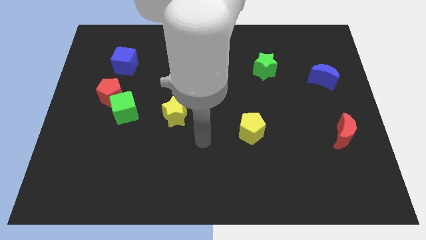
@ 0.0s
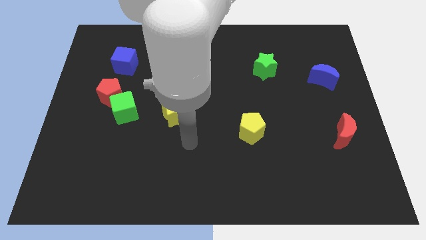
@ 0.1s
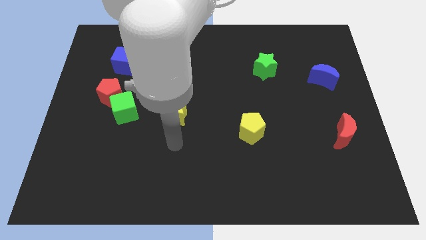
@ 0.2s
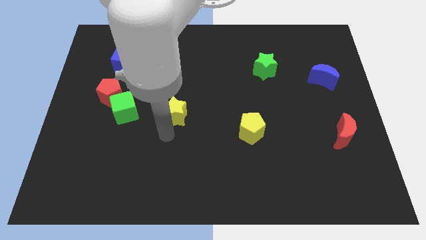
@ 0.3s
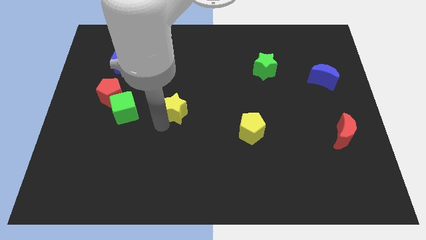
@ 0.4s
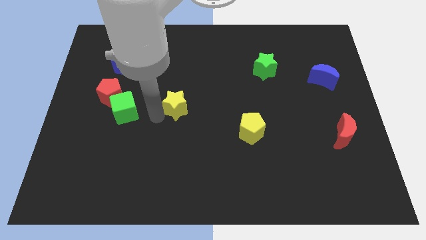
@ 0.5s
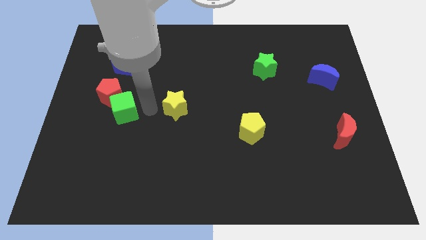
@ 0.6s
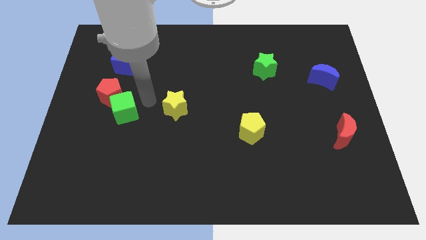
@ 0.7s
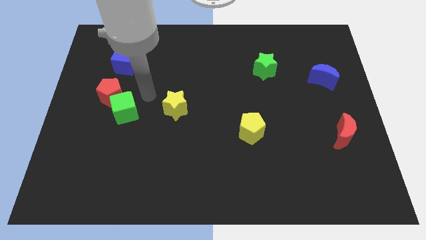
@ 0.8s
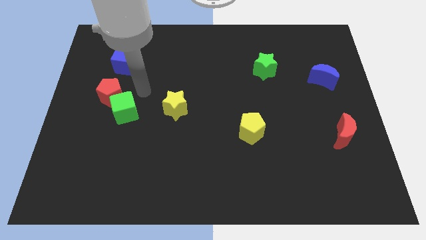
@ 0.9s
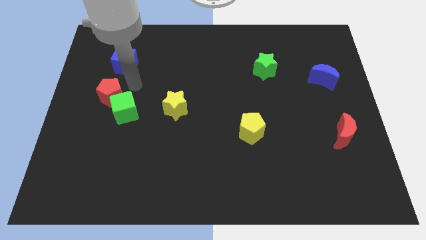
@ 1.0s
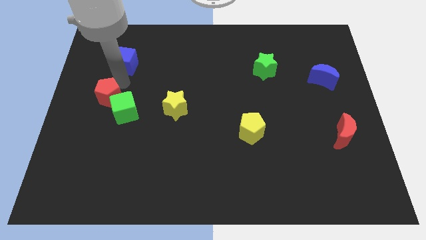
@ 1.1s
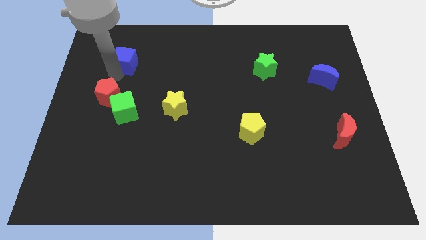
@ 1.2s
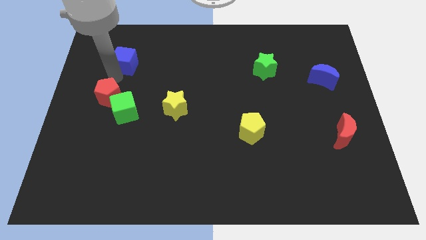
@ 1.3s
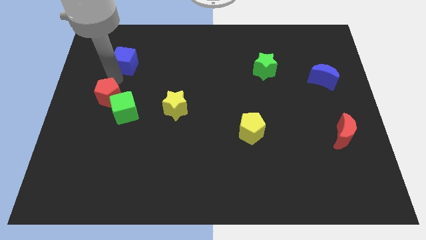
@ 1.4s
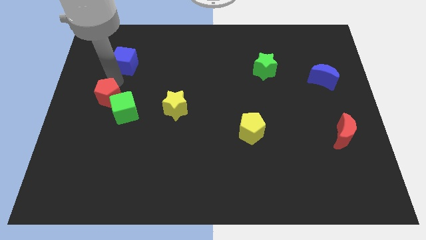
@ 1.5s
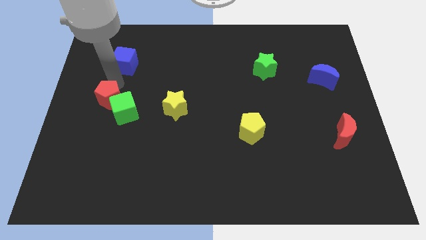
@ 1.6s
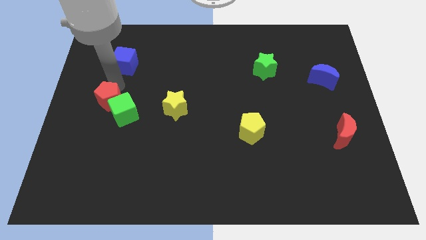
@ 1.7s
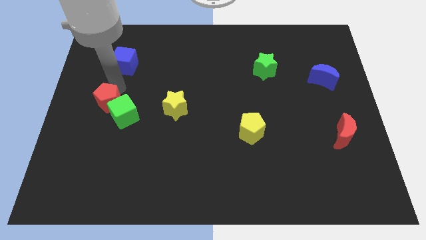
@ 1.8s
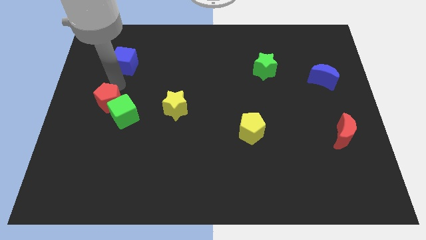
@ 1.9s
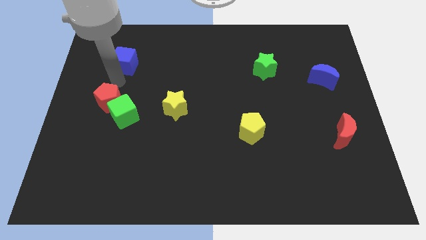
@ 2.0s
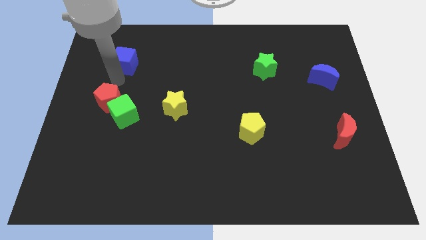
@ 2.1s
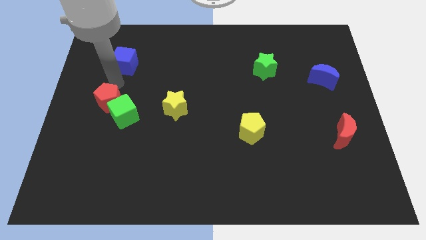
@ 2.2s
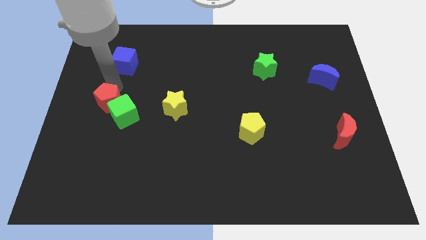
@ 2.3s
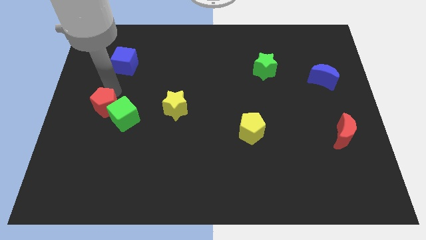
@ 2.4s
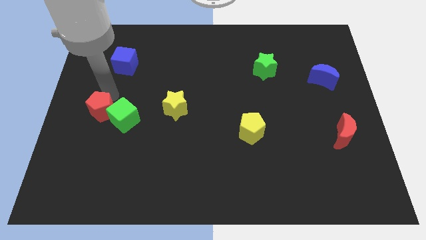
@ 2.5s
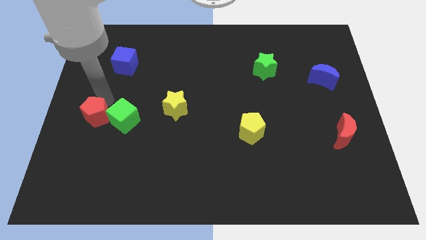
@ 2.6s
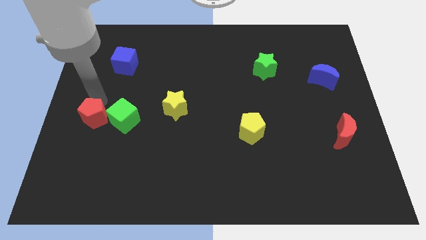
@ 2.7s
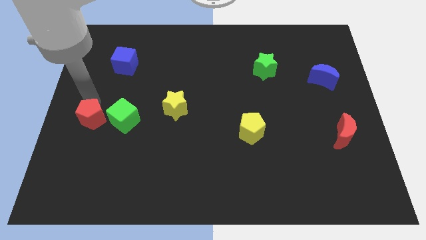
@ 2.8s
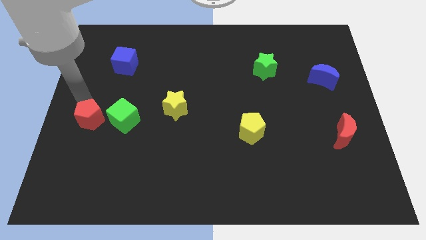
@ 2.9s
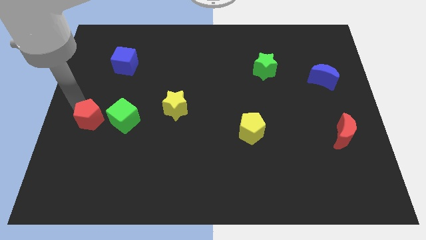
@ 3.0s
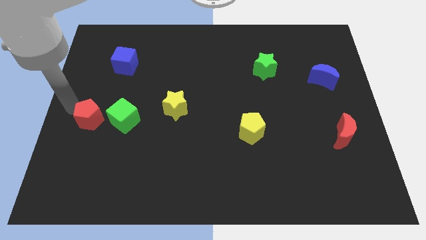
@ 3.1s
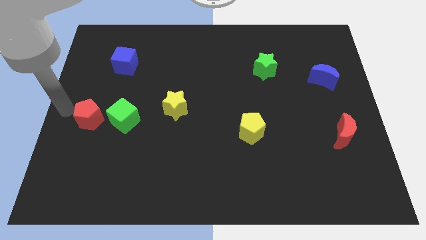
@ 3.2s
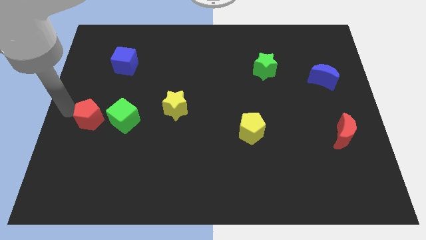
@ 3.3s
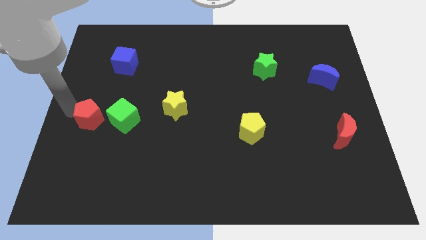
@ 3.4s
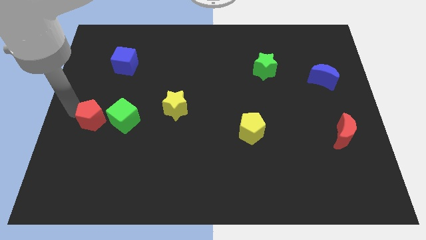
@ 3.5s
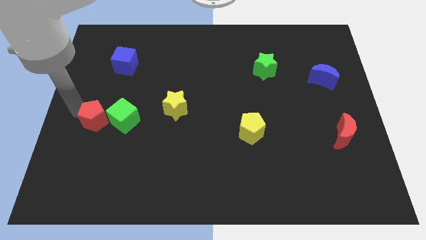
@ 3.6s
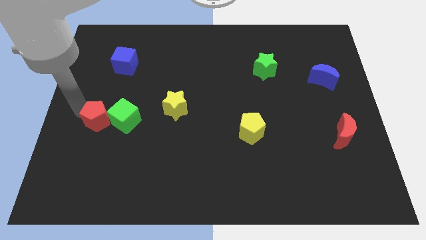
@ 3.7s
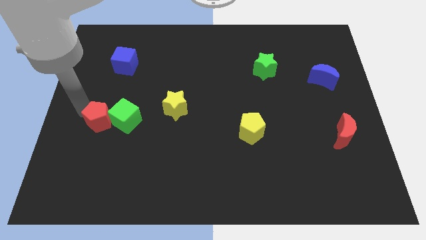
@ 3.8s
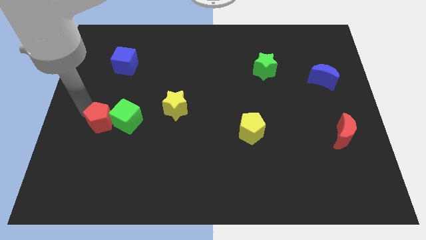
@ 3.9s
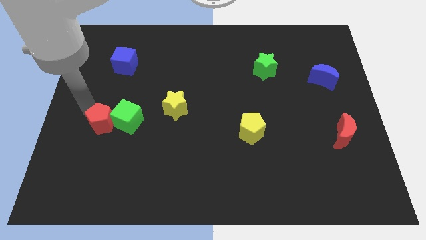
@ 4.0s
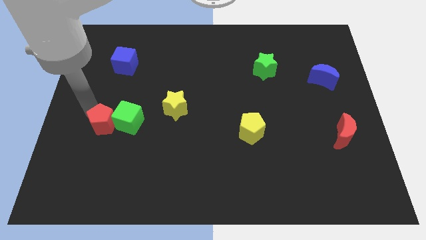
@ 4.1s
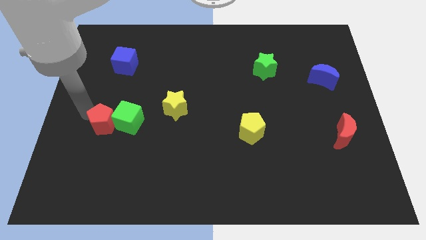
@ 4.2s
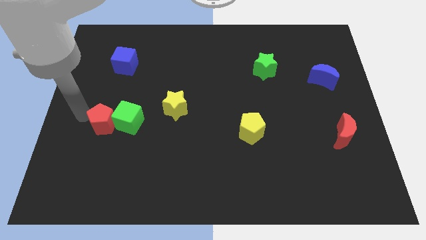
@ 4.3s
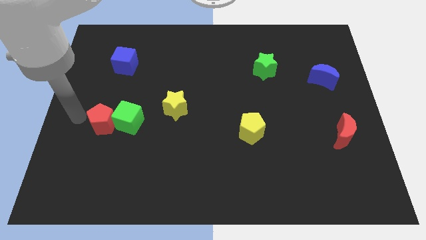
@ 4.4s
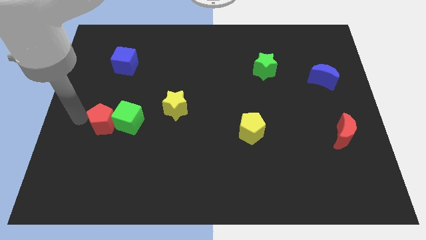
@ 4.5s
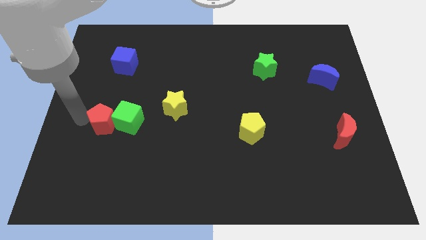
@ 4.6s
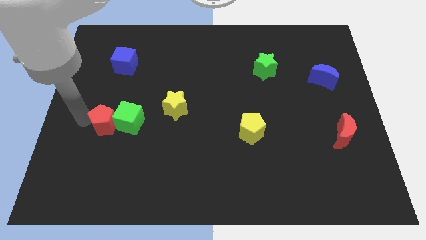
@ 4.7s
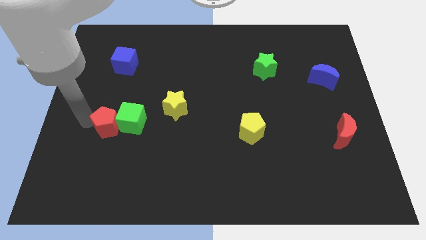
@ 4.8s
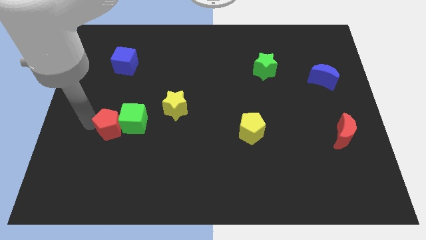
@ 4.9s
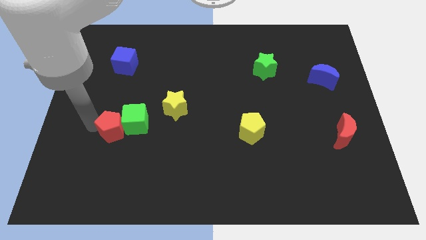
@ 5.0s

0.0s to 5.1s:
push the red pentagon diagonally down and right slightly

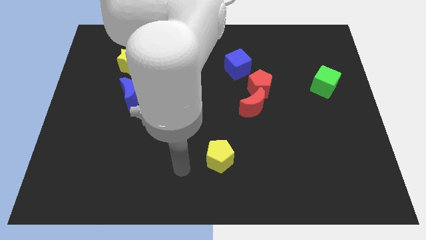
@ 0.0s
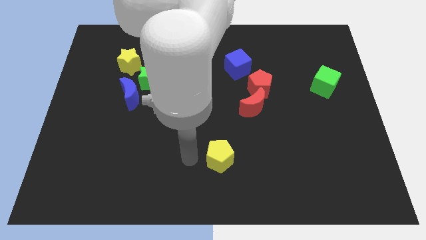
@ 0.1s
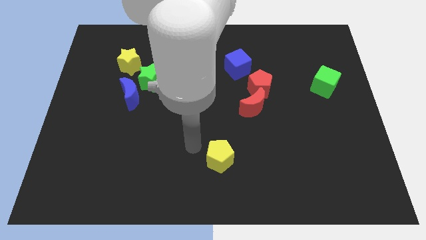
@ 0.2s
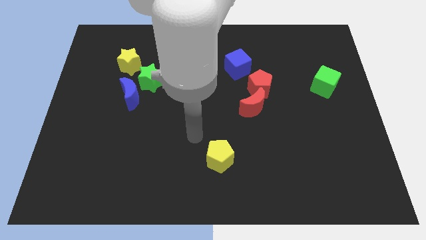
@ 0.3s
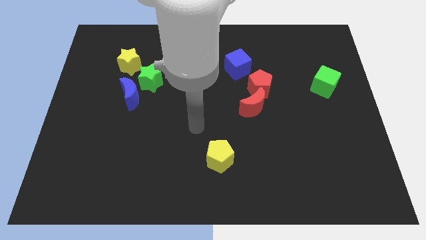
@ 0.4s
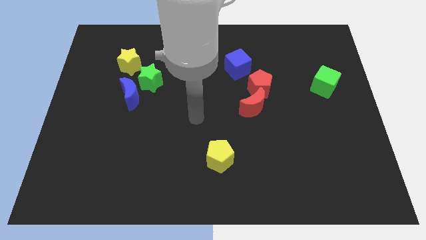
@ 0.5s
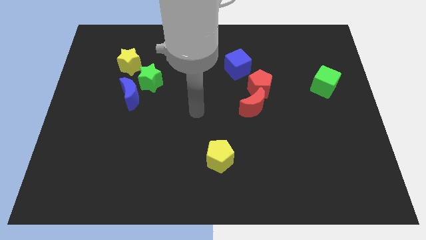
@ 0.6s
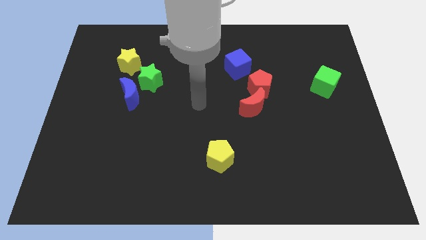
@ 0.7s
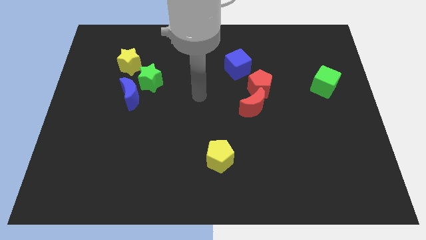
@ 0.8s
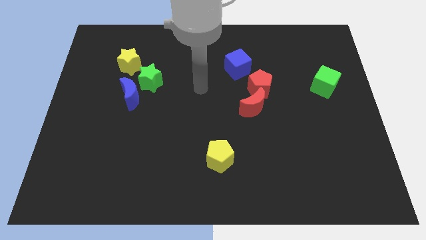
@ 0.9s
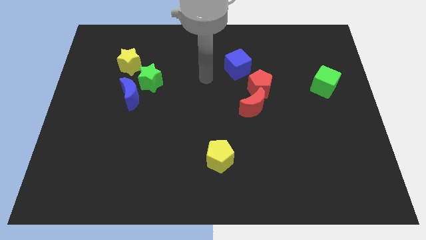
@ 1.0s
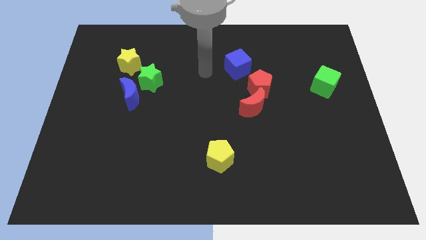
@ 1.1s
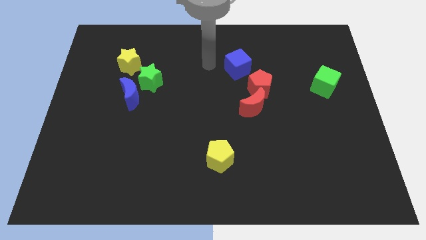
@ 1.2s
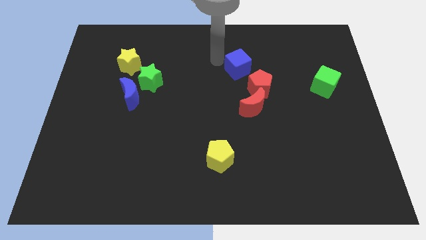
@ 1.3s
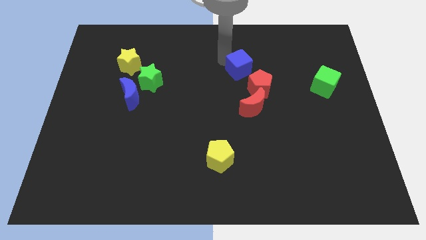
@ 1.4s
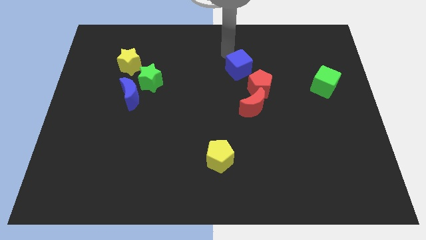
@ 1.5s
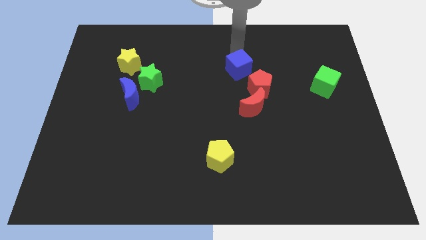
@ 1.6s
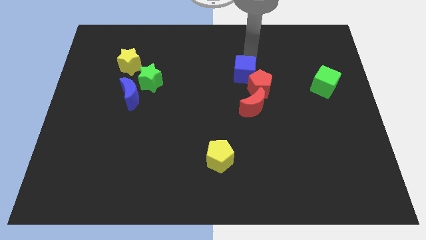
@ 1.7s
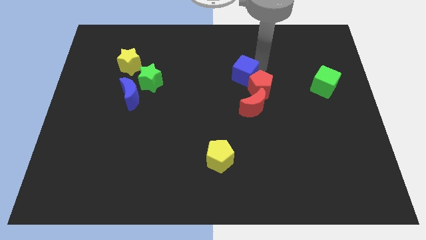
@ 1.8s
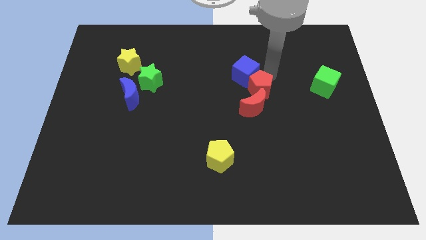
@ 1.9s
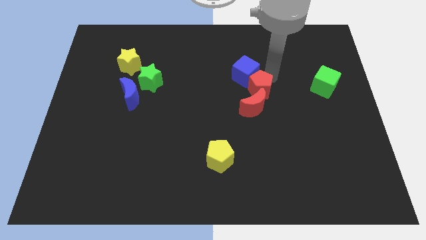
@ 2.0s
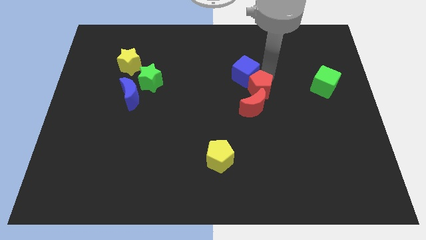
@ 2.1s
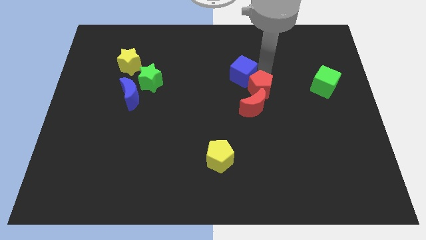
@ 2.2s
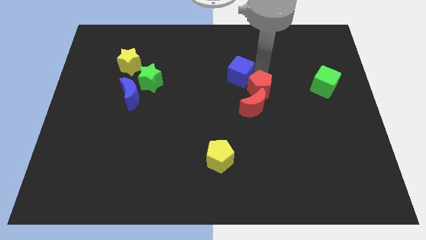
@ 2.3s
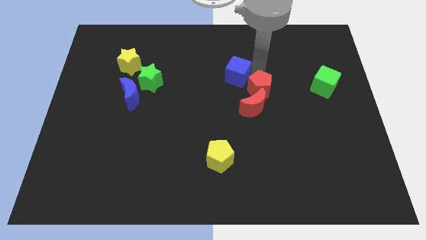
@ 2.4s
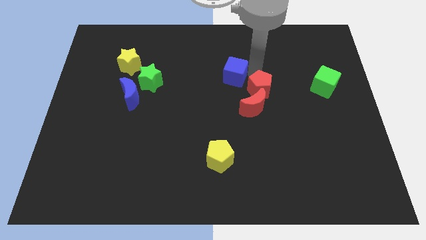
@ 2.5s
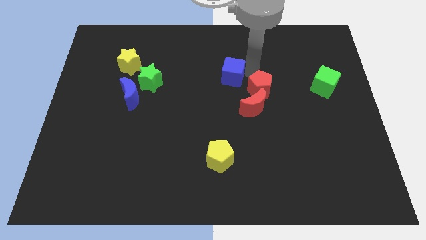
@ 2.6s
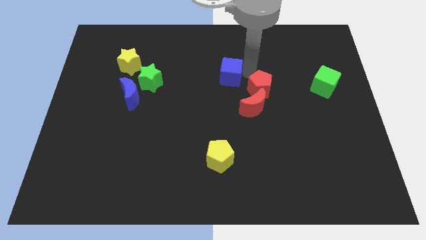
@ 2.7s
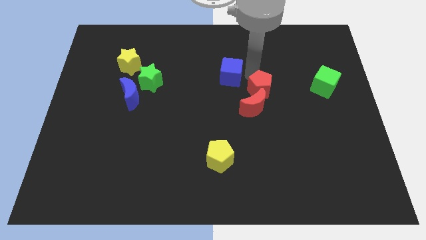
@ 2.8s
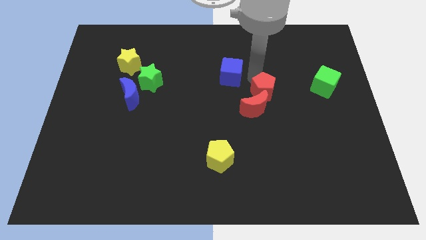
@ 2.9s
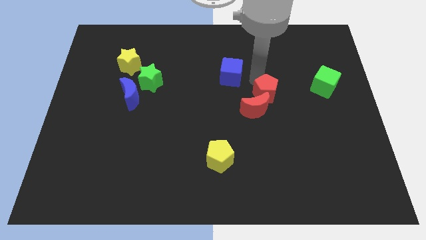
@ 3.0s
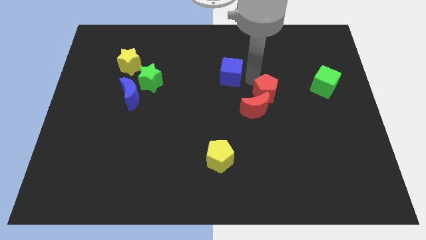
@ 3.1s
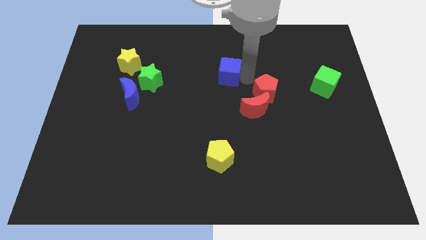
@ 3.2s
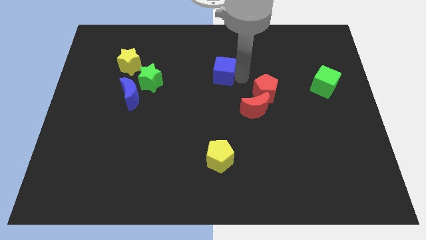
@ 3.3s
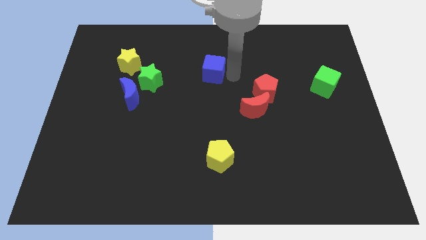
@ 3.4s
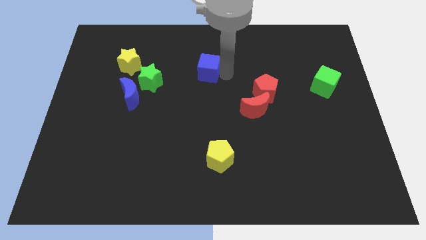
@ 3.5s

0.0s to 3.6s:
move the blue cube left somewhat
